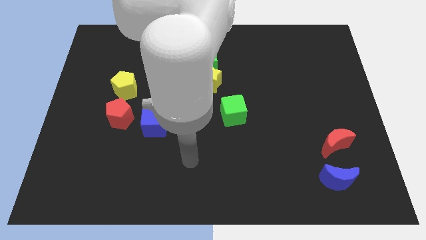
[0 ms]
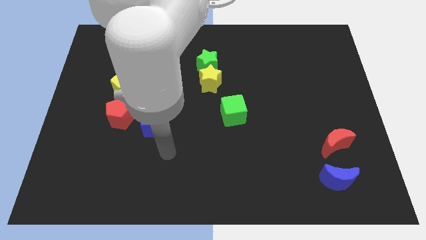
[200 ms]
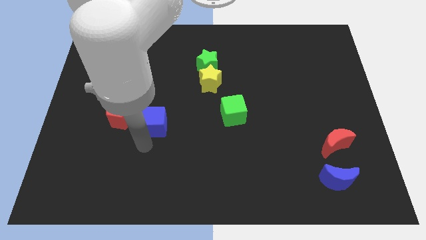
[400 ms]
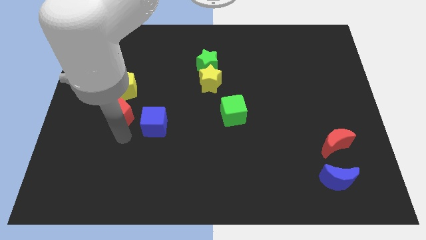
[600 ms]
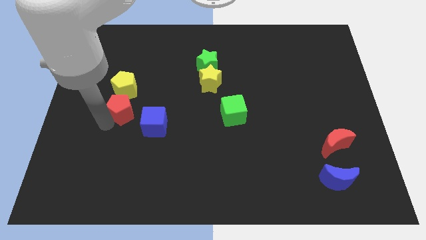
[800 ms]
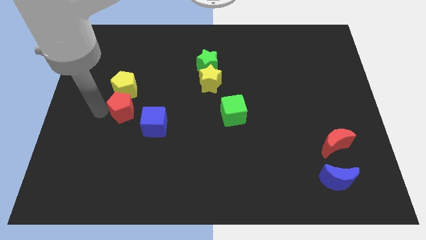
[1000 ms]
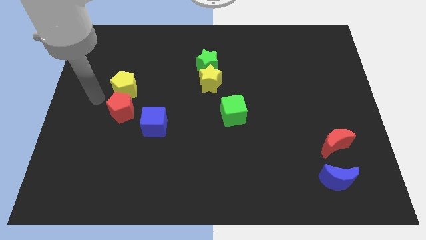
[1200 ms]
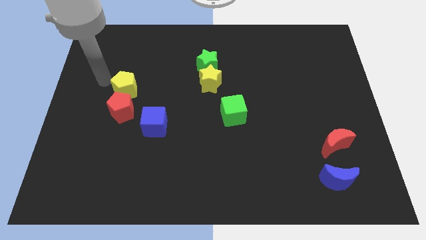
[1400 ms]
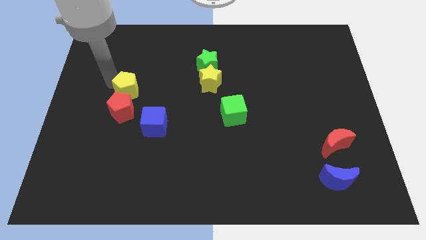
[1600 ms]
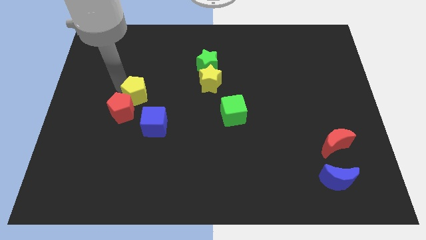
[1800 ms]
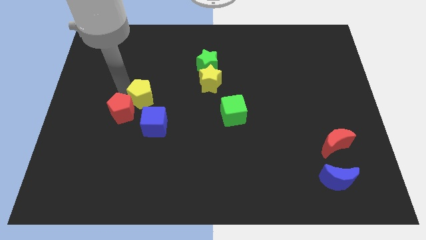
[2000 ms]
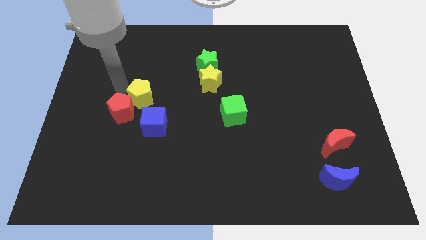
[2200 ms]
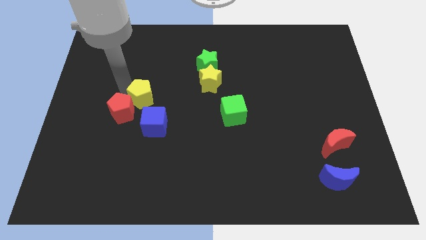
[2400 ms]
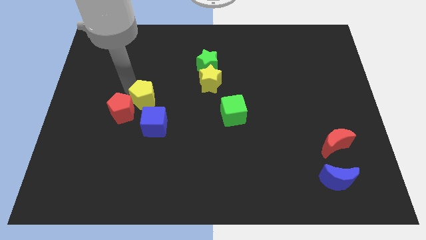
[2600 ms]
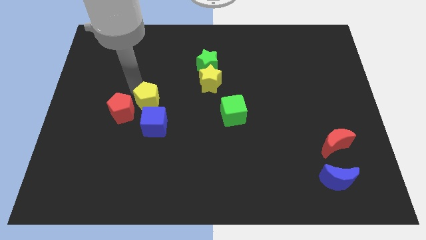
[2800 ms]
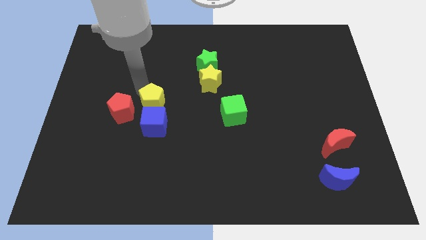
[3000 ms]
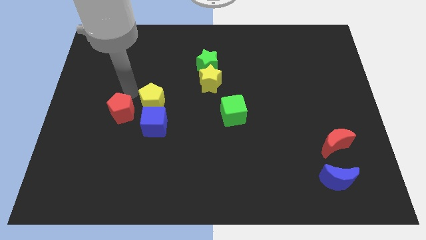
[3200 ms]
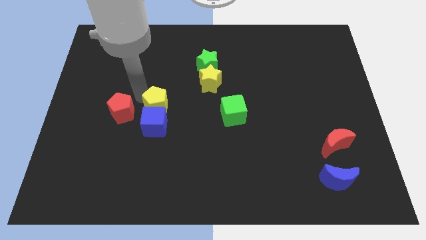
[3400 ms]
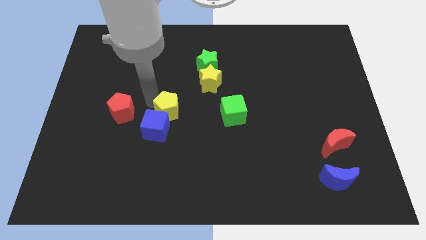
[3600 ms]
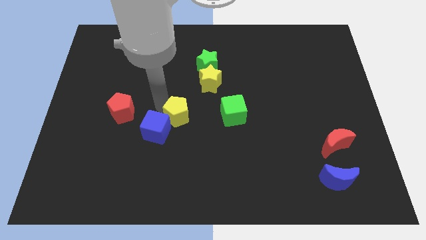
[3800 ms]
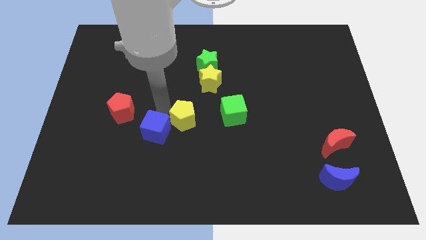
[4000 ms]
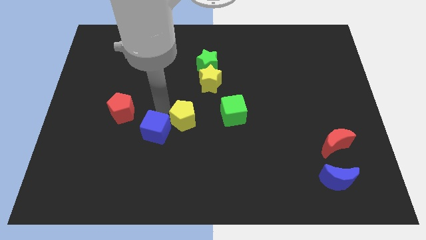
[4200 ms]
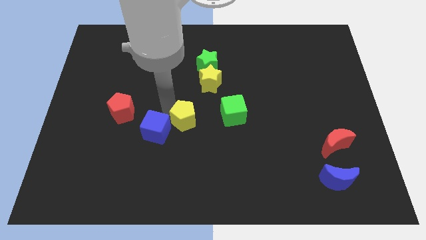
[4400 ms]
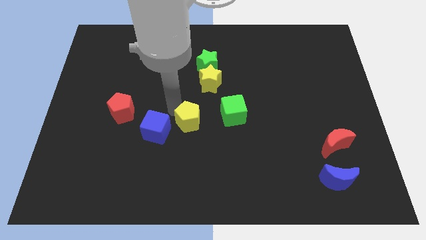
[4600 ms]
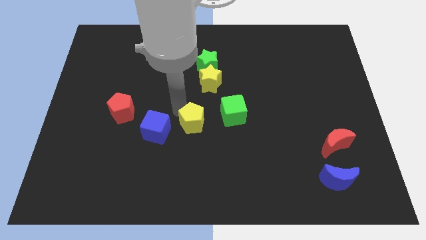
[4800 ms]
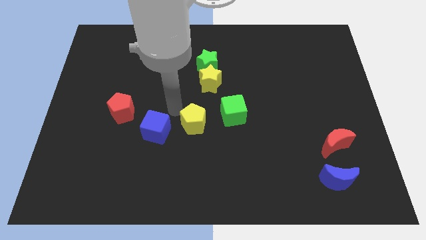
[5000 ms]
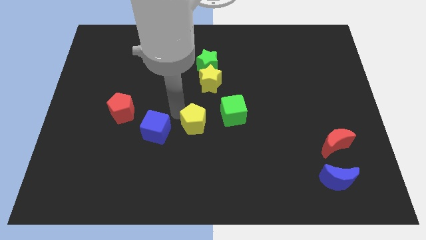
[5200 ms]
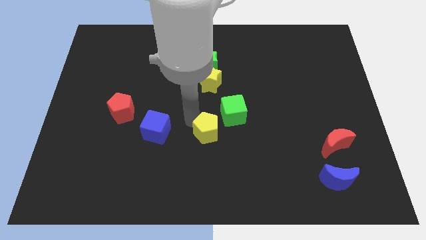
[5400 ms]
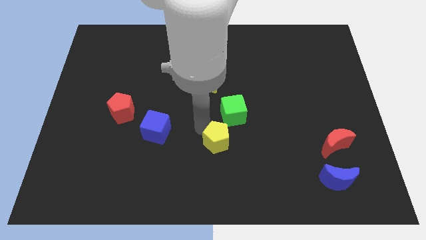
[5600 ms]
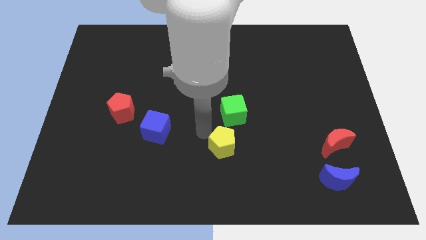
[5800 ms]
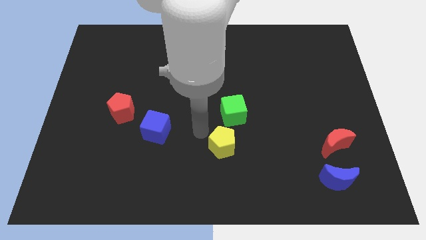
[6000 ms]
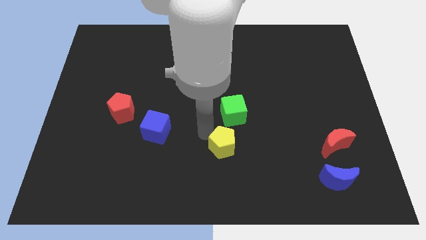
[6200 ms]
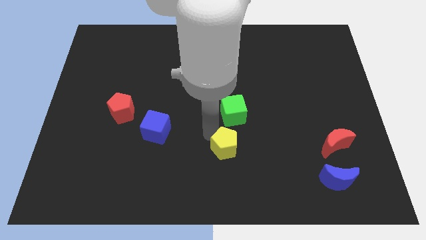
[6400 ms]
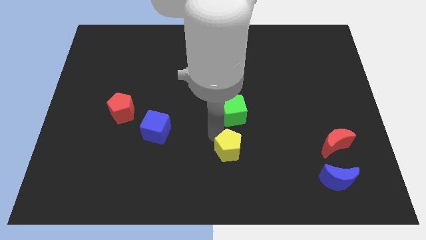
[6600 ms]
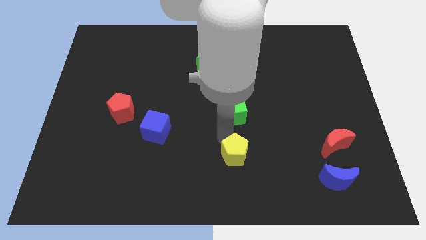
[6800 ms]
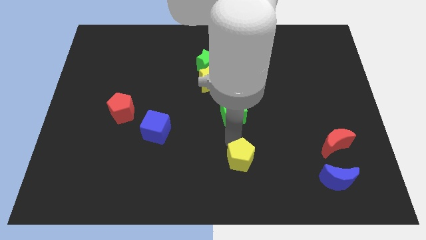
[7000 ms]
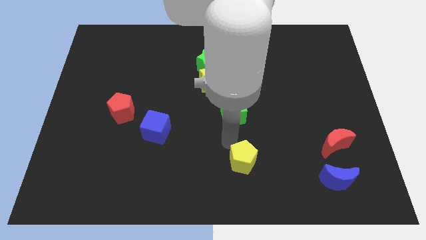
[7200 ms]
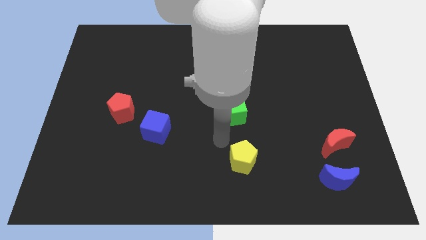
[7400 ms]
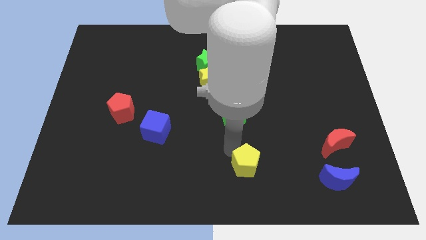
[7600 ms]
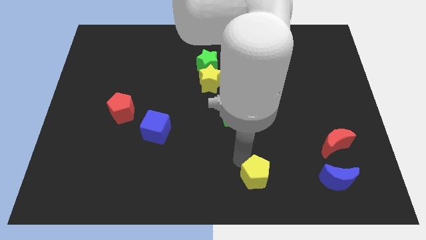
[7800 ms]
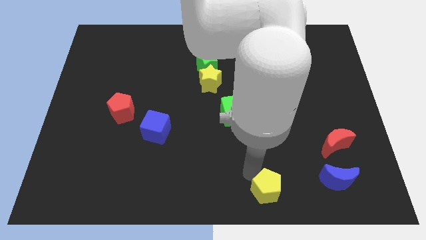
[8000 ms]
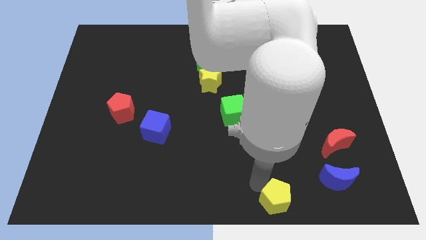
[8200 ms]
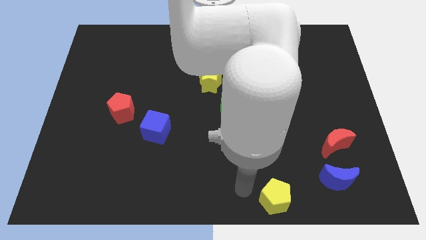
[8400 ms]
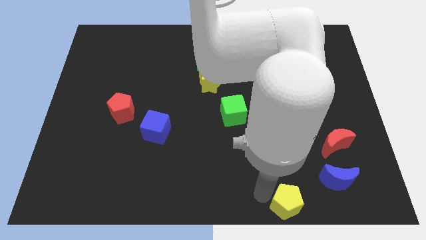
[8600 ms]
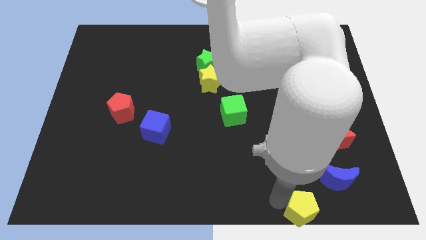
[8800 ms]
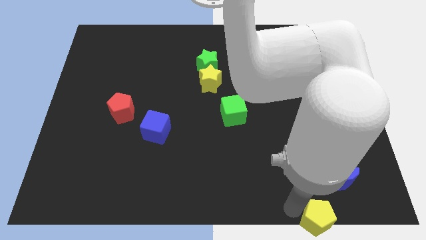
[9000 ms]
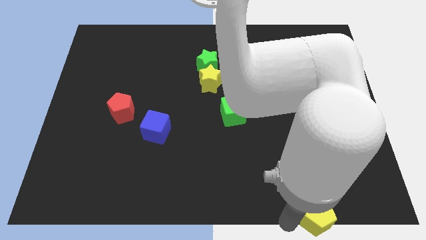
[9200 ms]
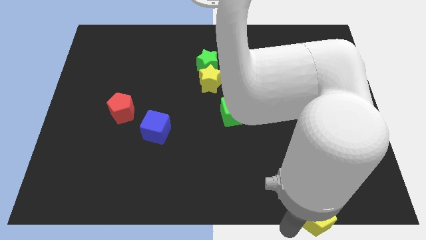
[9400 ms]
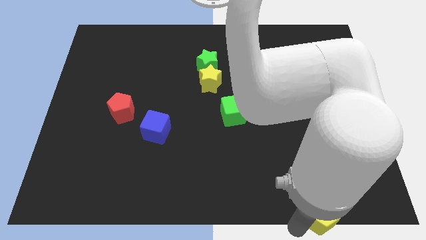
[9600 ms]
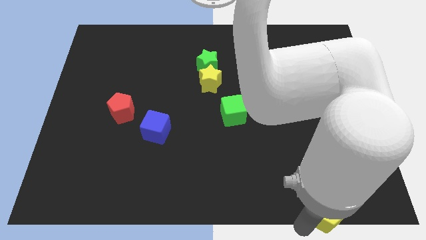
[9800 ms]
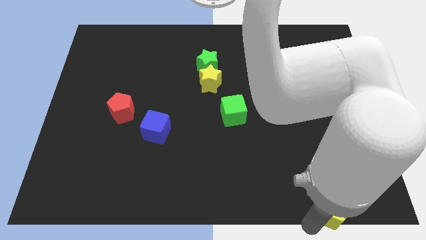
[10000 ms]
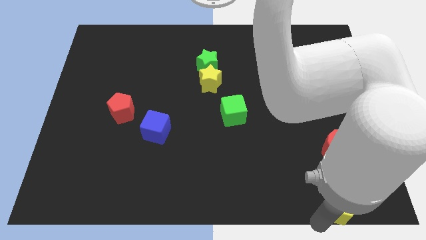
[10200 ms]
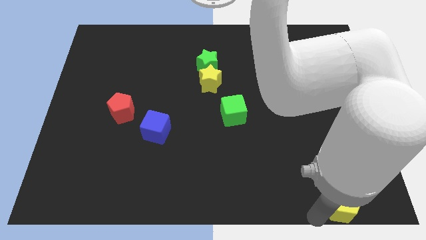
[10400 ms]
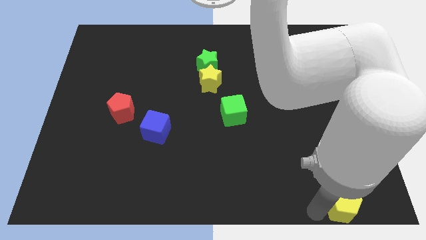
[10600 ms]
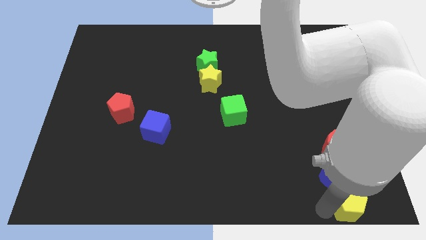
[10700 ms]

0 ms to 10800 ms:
move the yellow pentagon to the bottom right

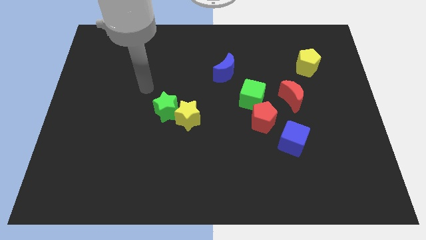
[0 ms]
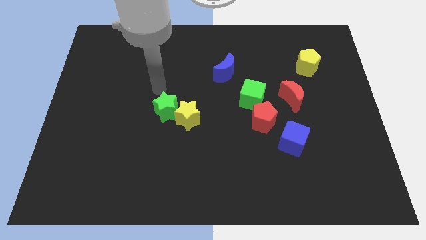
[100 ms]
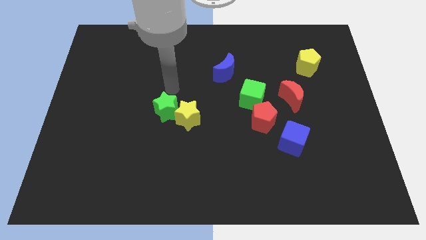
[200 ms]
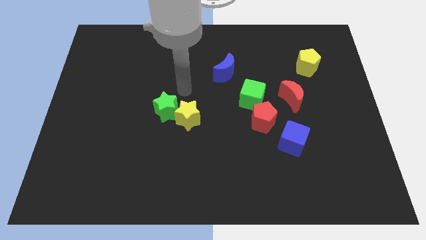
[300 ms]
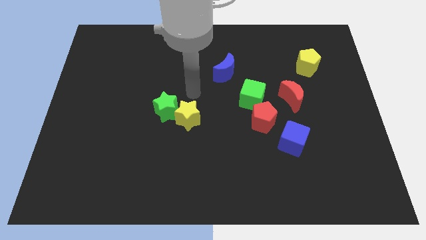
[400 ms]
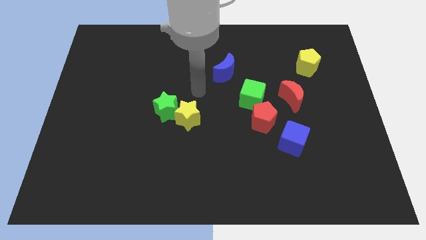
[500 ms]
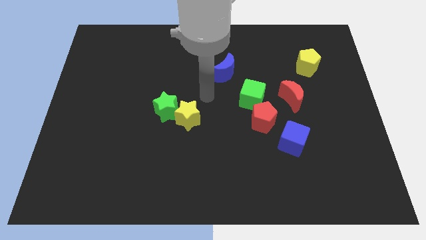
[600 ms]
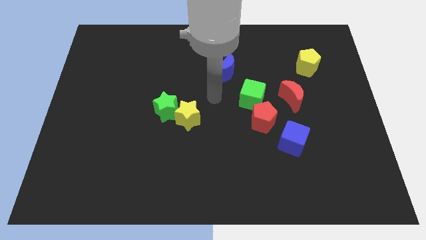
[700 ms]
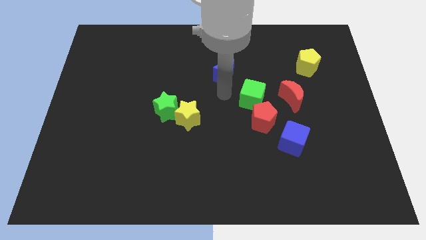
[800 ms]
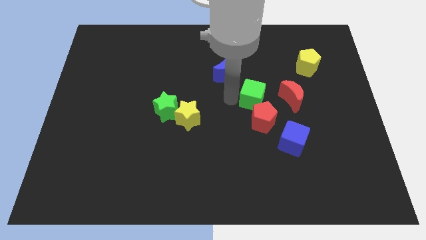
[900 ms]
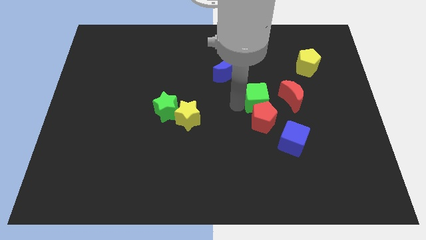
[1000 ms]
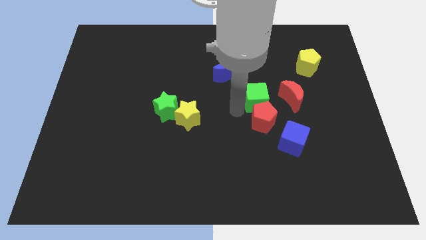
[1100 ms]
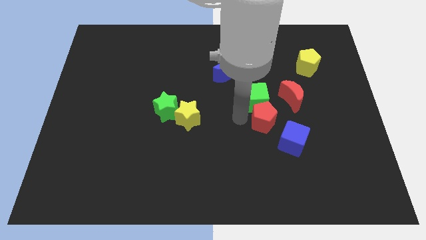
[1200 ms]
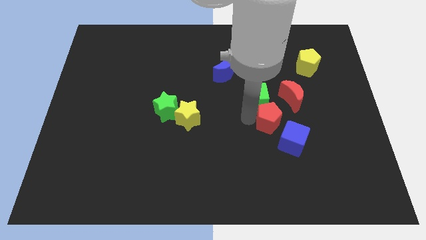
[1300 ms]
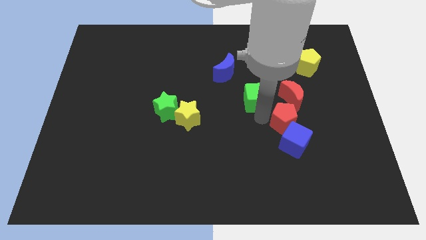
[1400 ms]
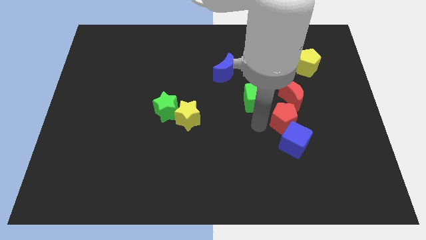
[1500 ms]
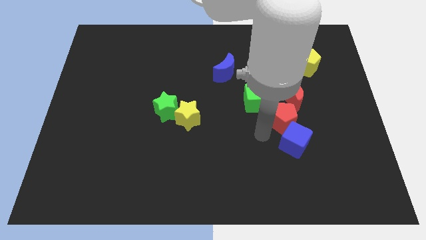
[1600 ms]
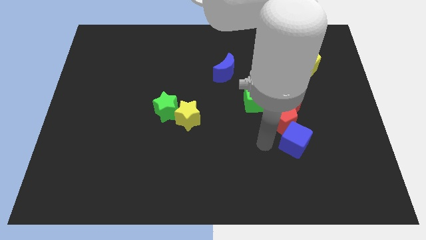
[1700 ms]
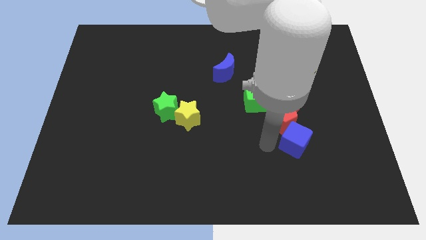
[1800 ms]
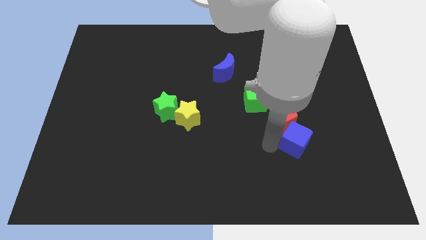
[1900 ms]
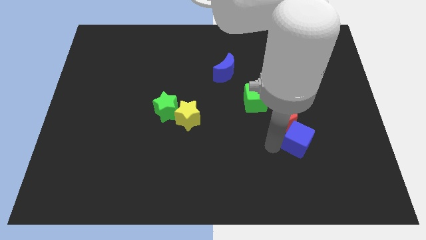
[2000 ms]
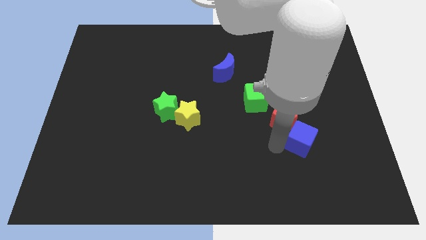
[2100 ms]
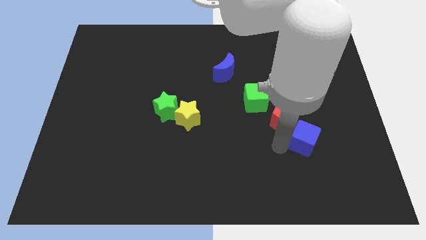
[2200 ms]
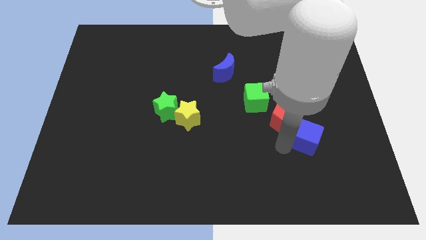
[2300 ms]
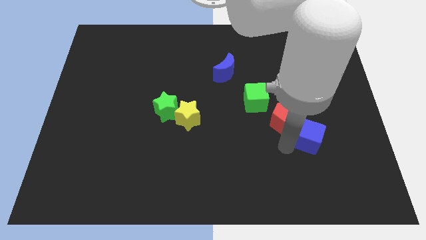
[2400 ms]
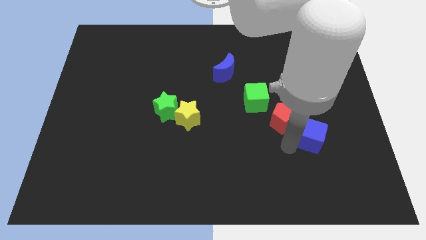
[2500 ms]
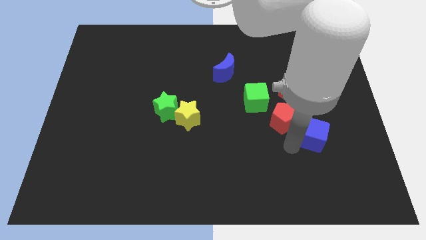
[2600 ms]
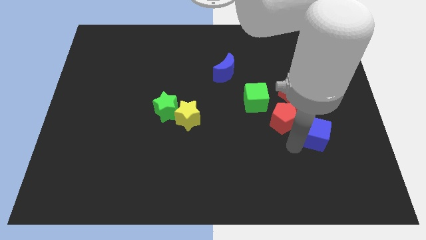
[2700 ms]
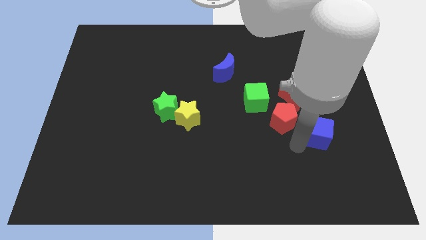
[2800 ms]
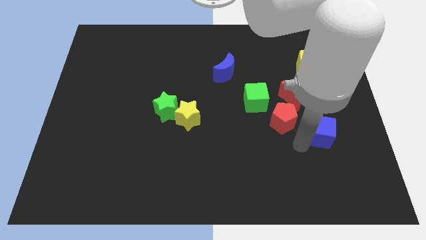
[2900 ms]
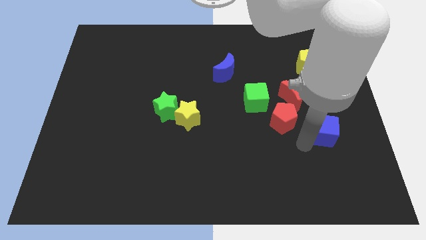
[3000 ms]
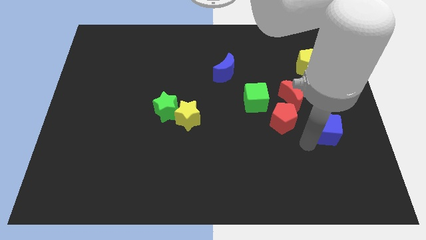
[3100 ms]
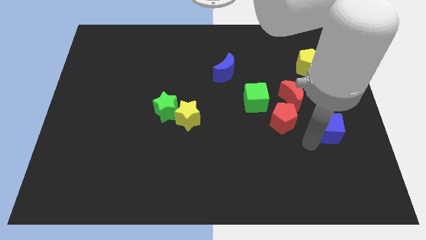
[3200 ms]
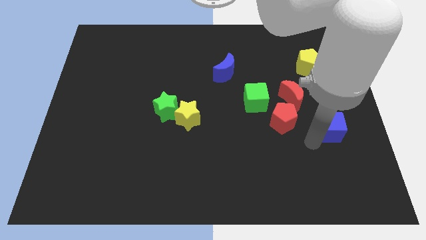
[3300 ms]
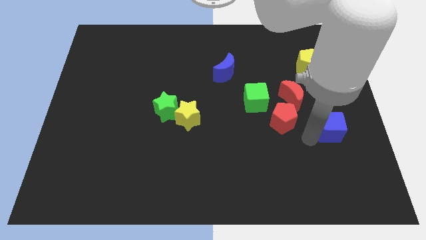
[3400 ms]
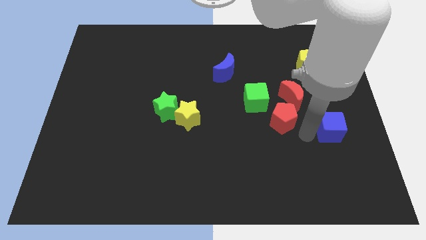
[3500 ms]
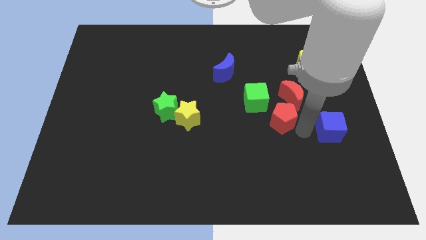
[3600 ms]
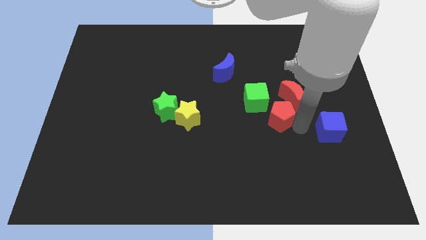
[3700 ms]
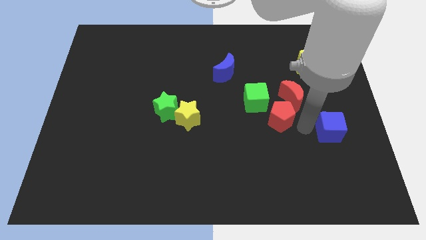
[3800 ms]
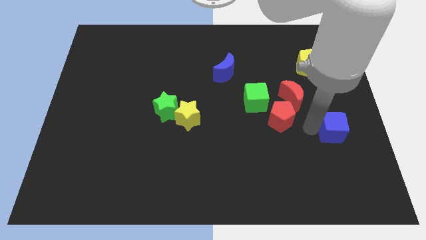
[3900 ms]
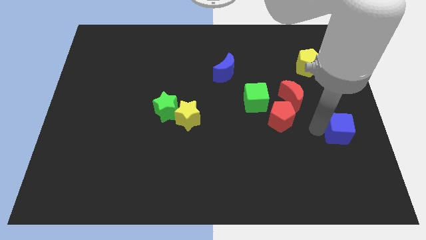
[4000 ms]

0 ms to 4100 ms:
slide the blue cube to the right side
